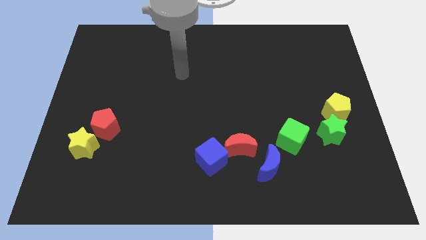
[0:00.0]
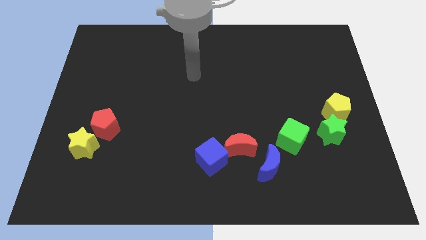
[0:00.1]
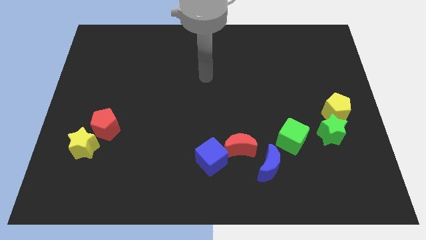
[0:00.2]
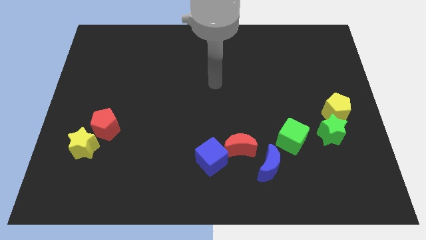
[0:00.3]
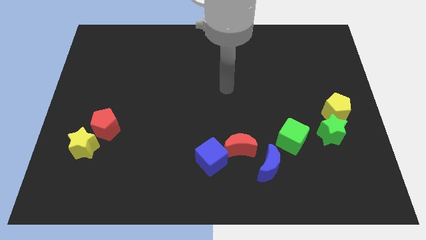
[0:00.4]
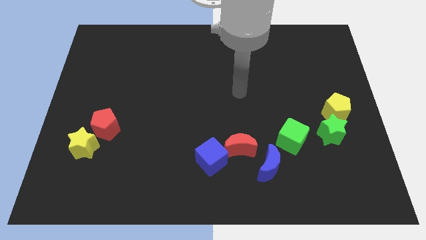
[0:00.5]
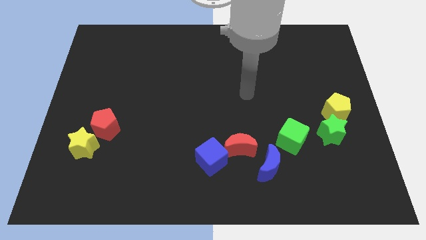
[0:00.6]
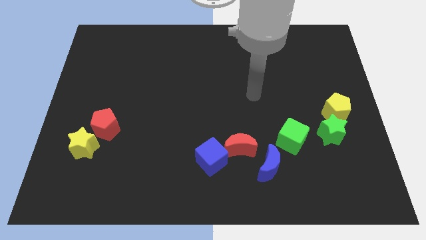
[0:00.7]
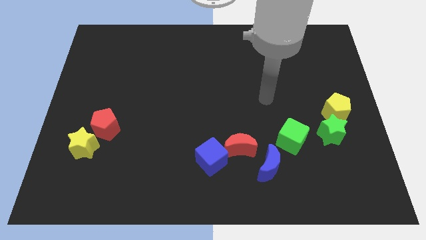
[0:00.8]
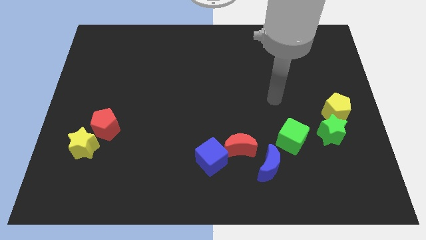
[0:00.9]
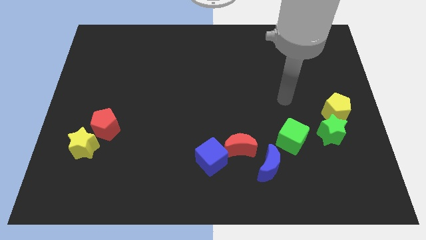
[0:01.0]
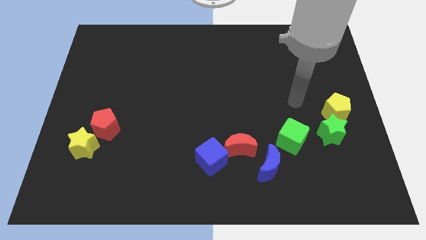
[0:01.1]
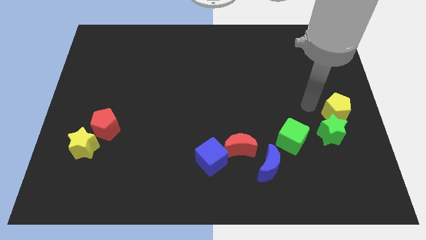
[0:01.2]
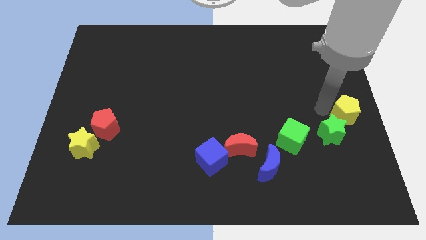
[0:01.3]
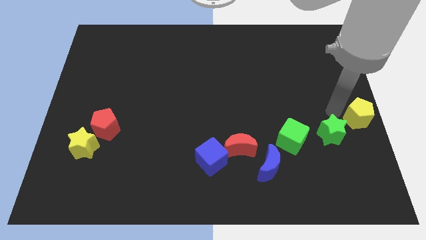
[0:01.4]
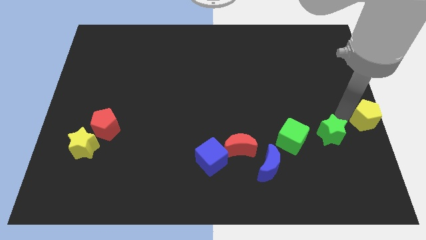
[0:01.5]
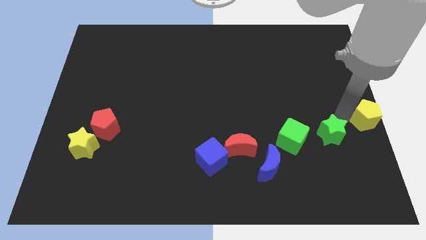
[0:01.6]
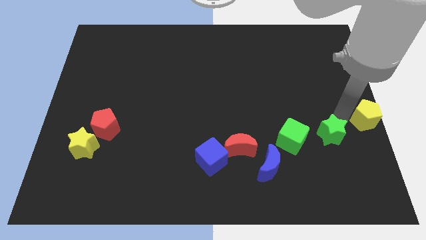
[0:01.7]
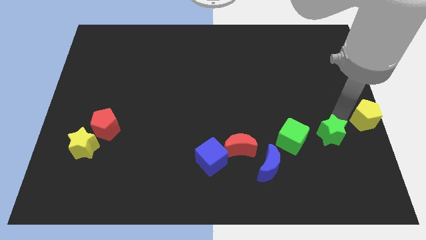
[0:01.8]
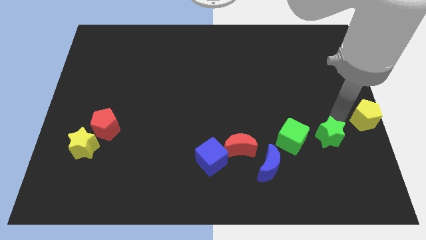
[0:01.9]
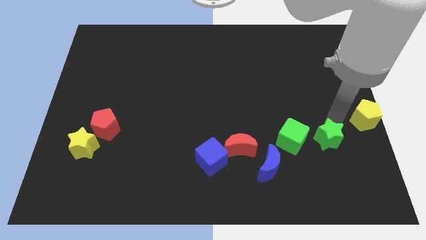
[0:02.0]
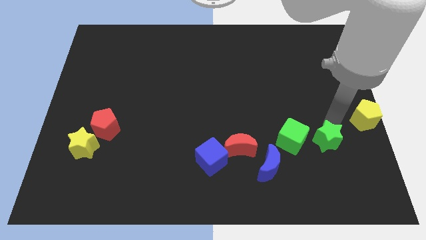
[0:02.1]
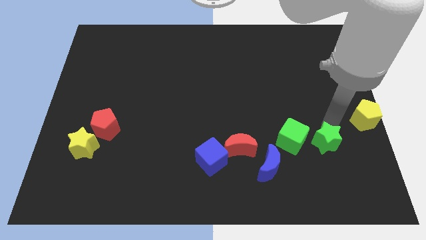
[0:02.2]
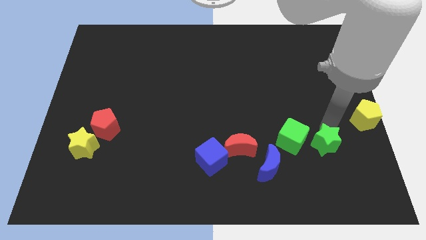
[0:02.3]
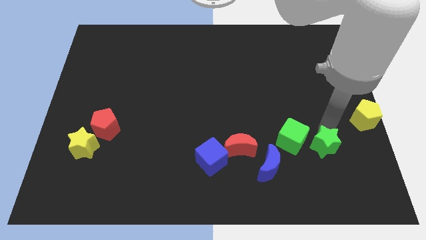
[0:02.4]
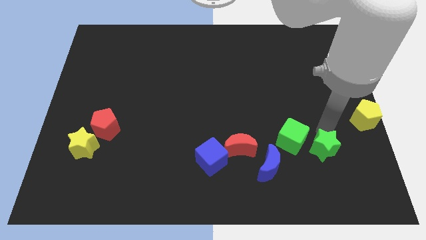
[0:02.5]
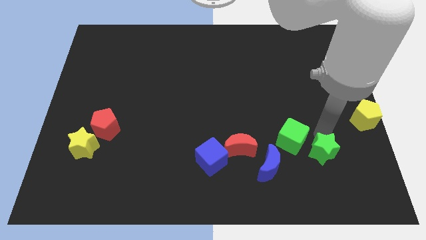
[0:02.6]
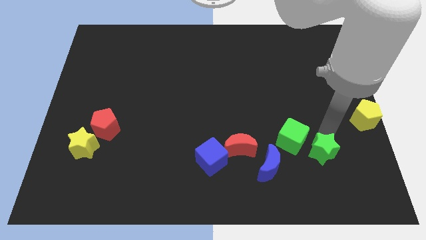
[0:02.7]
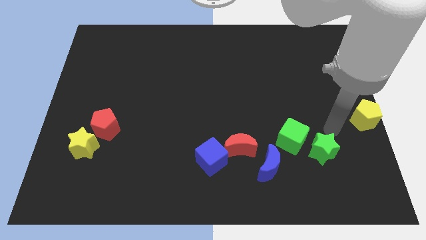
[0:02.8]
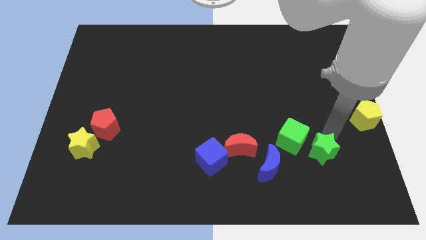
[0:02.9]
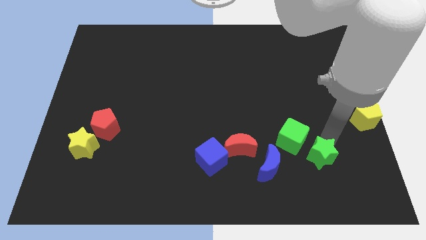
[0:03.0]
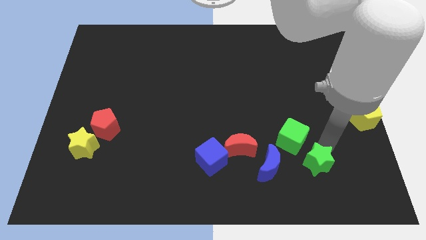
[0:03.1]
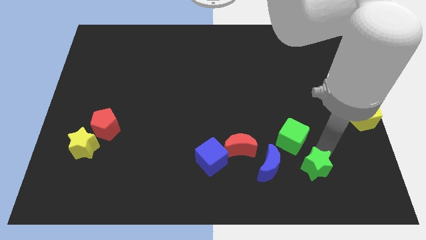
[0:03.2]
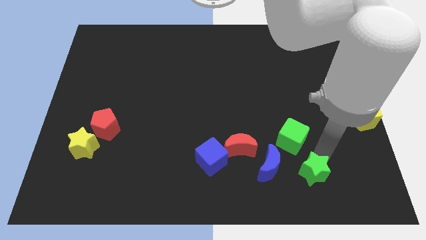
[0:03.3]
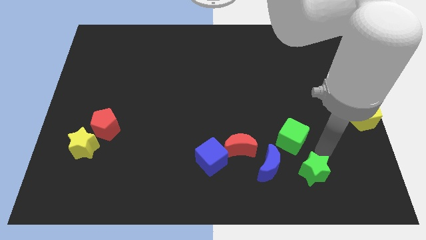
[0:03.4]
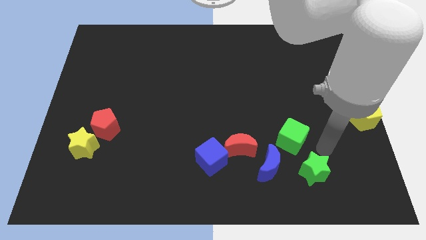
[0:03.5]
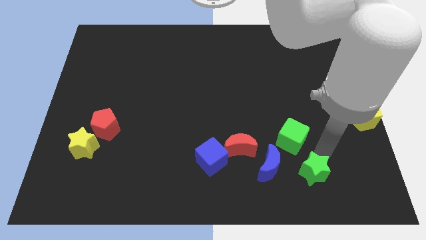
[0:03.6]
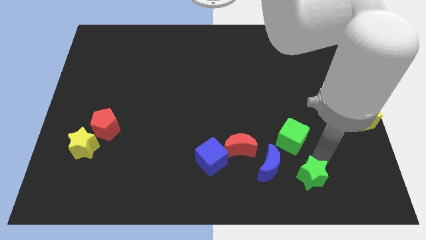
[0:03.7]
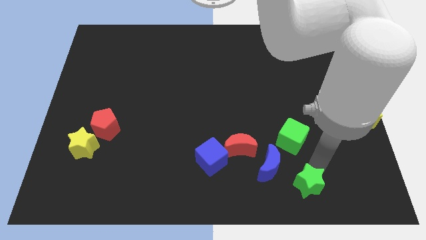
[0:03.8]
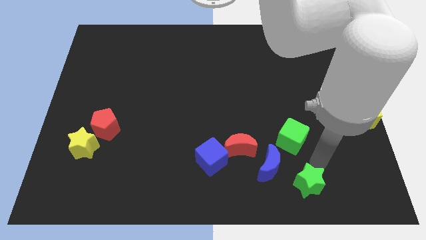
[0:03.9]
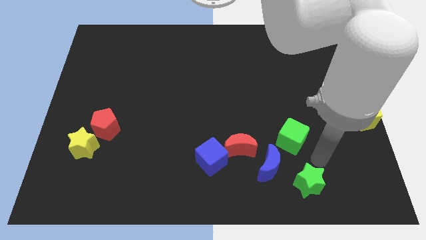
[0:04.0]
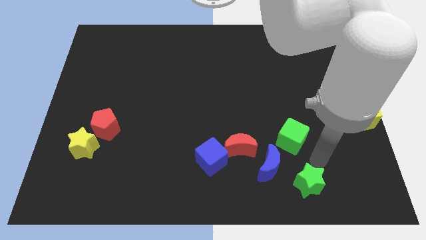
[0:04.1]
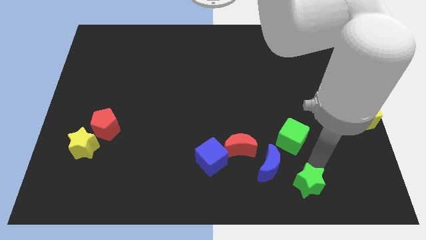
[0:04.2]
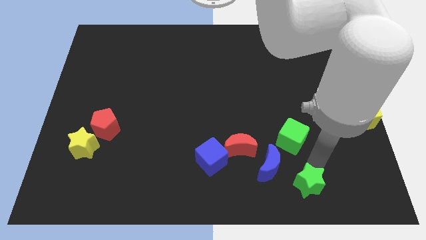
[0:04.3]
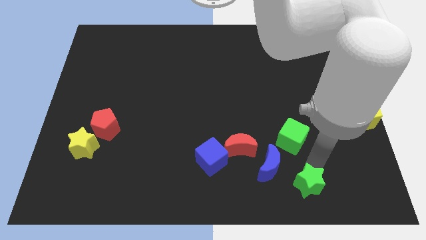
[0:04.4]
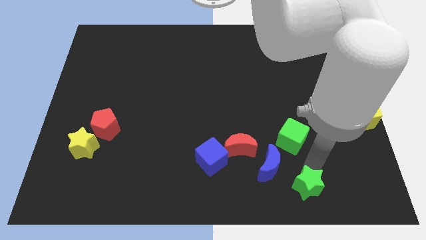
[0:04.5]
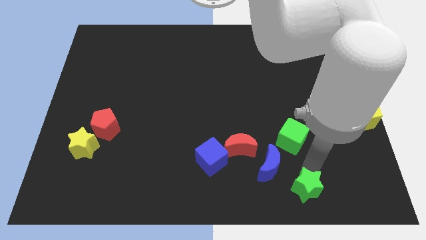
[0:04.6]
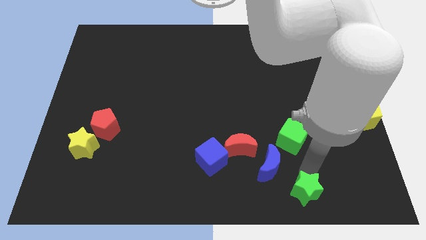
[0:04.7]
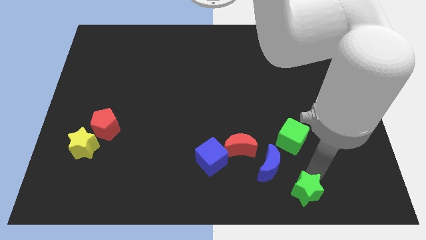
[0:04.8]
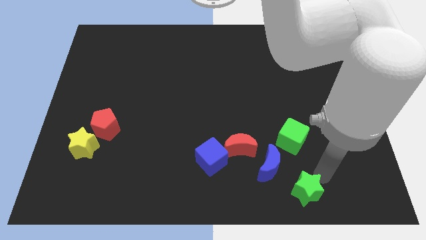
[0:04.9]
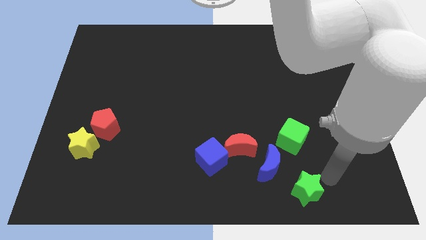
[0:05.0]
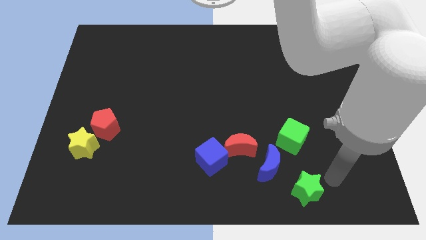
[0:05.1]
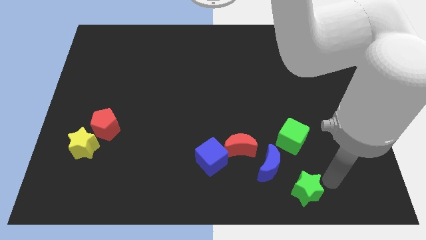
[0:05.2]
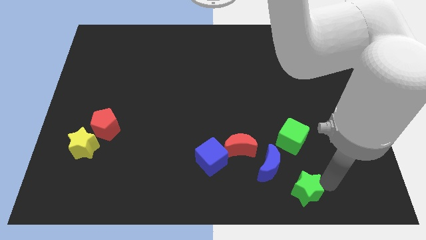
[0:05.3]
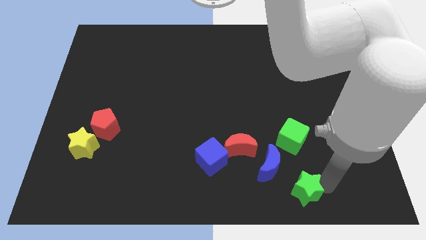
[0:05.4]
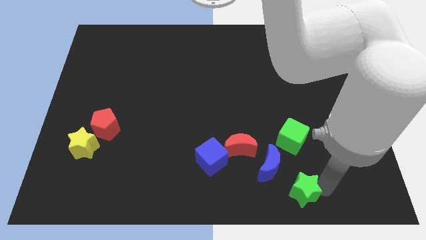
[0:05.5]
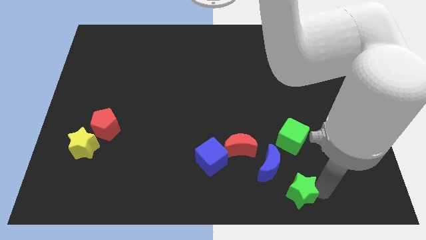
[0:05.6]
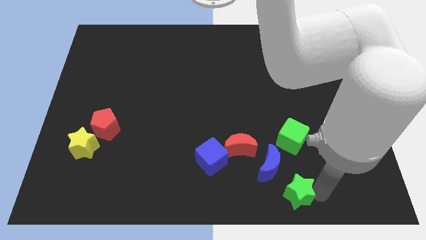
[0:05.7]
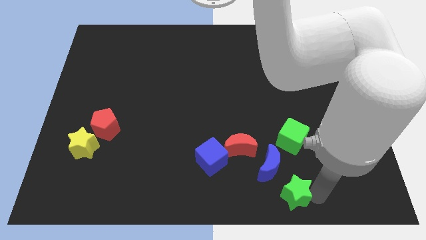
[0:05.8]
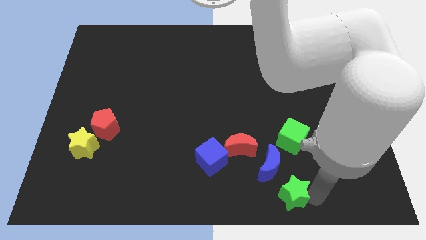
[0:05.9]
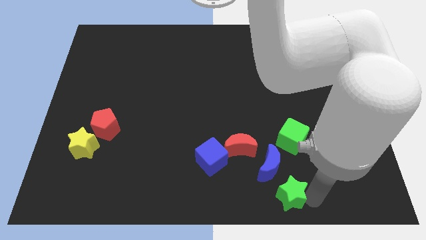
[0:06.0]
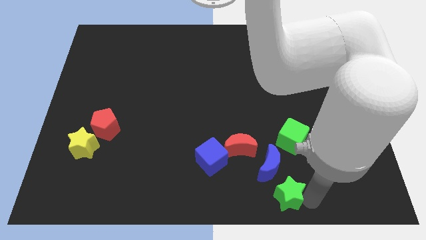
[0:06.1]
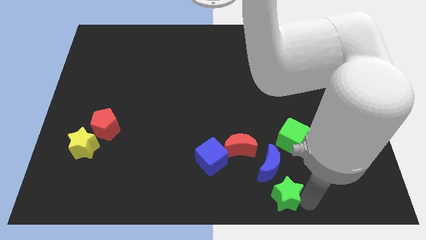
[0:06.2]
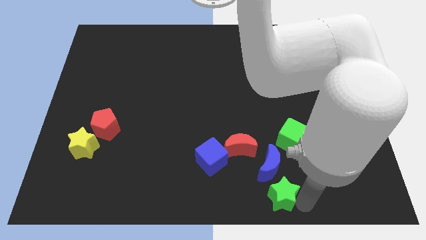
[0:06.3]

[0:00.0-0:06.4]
slide the green star to the bottom side
